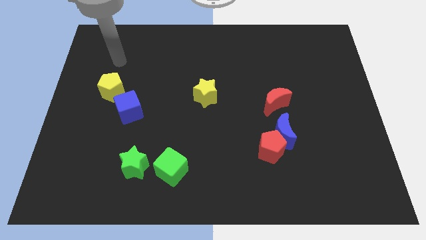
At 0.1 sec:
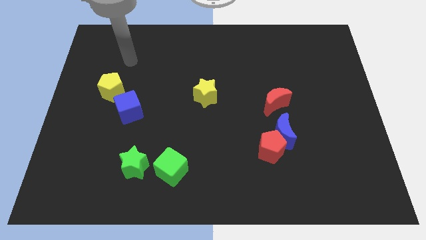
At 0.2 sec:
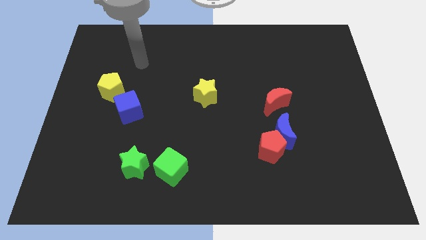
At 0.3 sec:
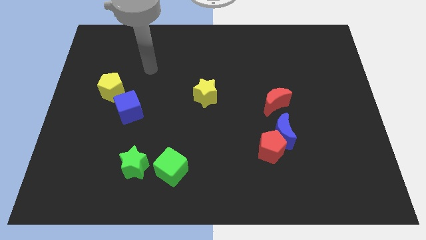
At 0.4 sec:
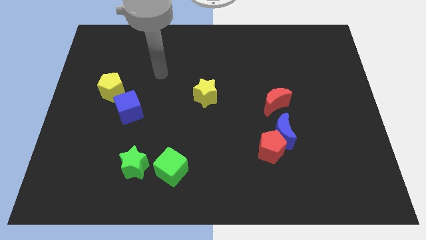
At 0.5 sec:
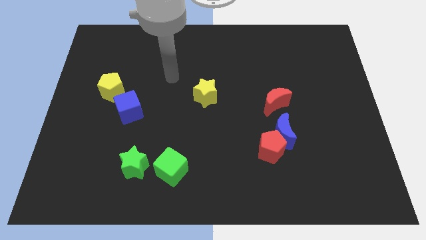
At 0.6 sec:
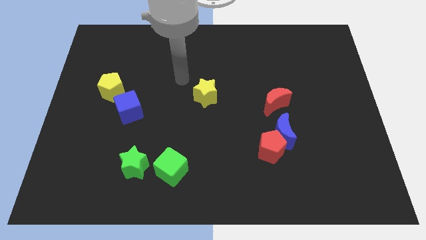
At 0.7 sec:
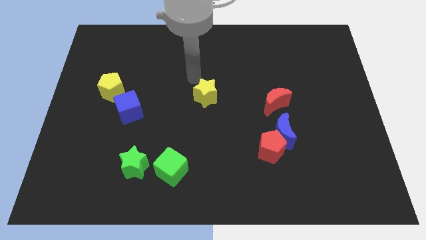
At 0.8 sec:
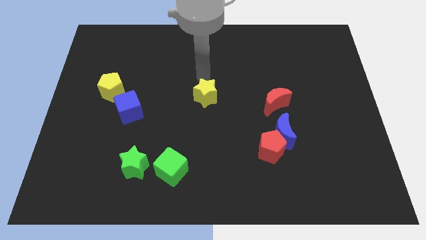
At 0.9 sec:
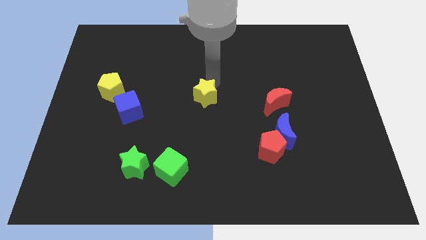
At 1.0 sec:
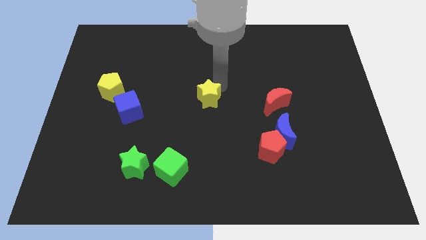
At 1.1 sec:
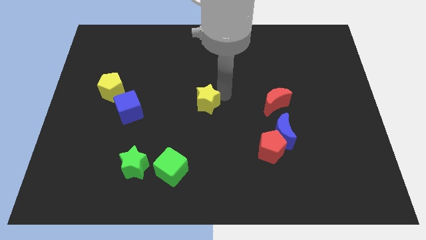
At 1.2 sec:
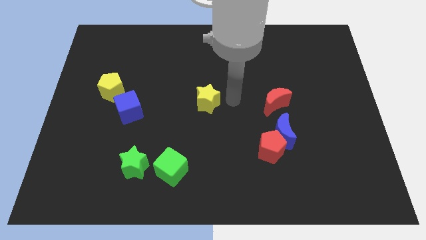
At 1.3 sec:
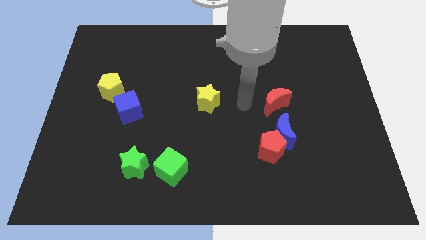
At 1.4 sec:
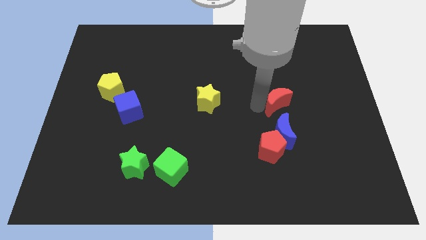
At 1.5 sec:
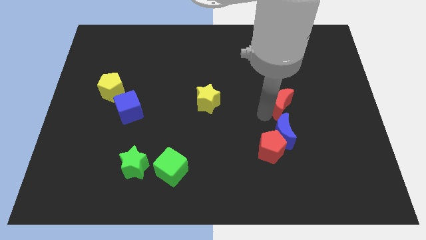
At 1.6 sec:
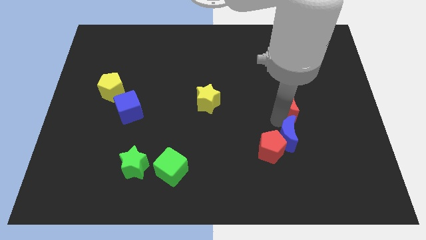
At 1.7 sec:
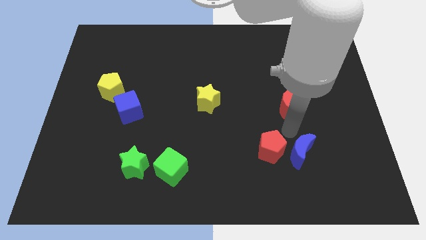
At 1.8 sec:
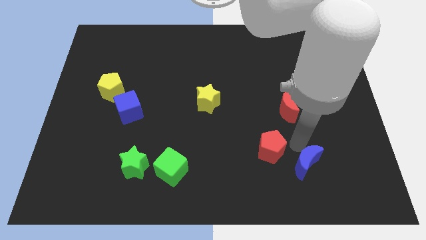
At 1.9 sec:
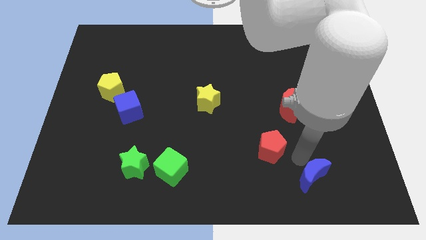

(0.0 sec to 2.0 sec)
pull the red pentagon apart from the blue moon

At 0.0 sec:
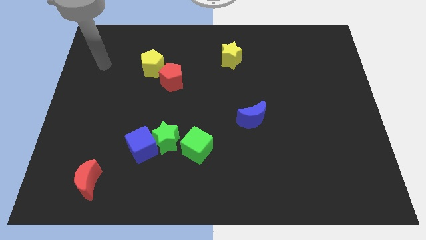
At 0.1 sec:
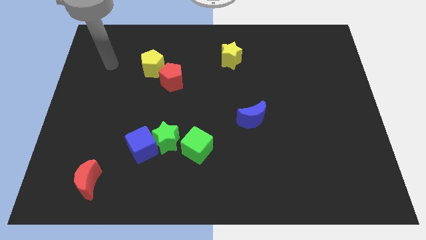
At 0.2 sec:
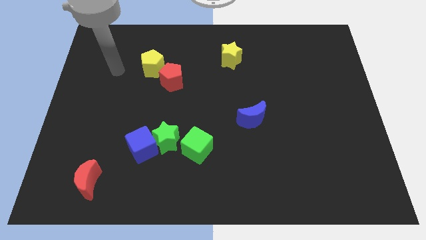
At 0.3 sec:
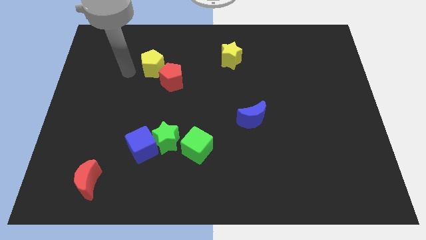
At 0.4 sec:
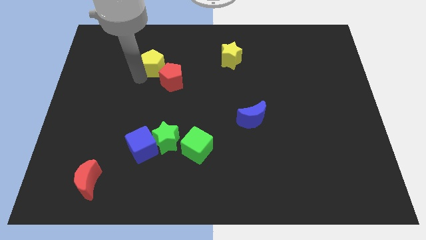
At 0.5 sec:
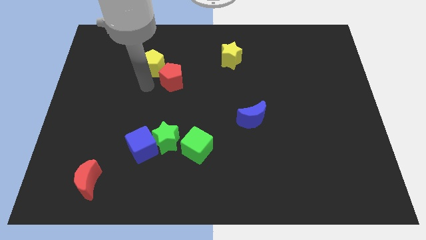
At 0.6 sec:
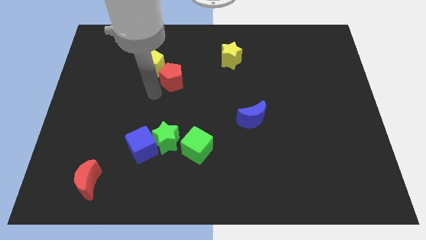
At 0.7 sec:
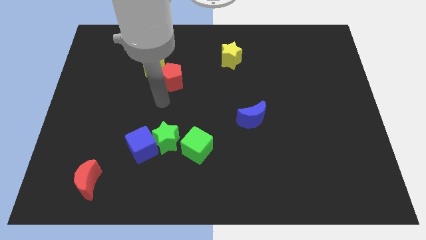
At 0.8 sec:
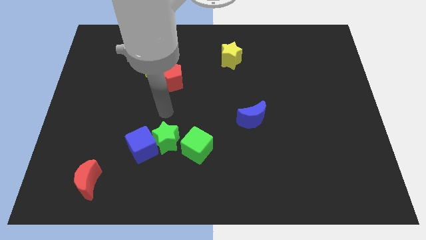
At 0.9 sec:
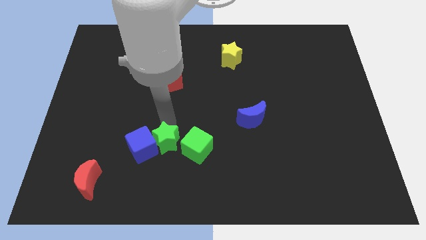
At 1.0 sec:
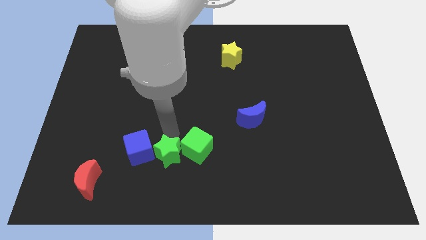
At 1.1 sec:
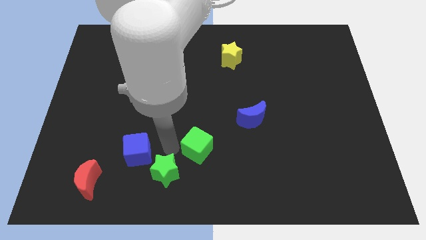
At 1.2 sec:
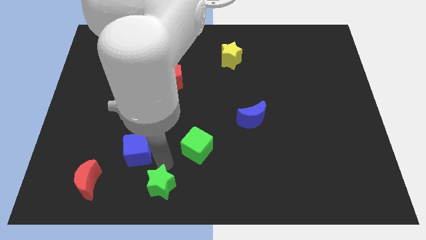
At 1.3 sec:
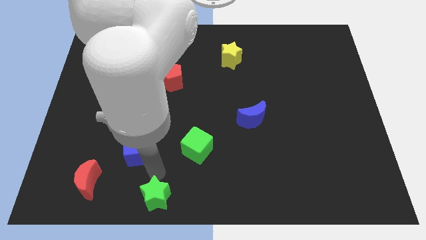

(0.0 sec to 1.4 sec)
move the blue cube away from the green star

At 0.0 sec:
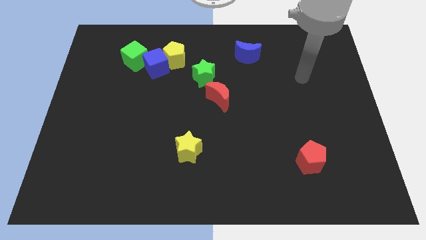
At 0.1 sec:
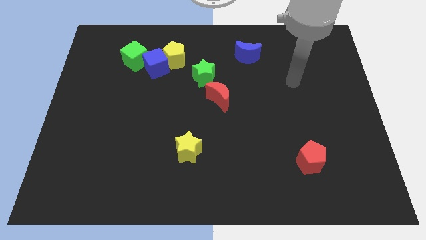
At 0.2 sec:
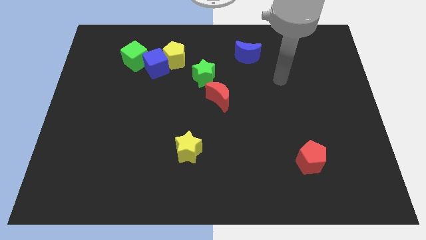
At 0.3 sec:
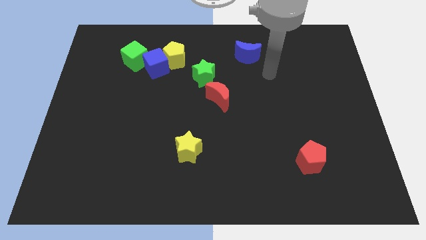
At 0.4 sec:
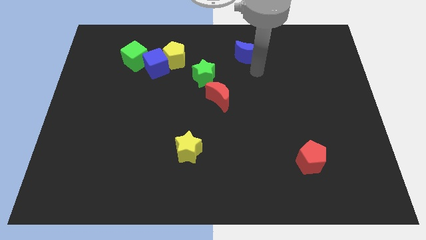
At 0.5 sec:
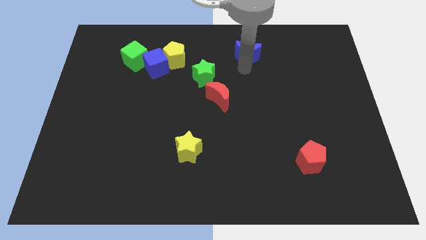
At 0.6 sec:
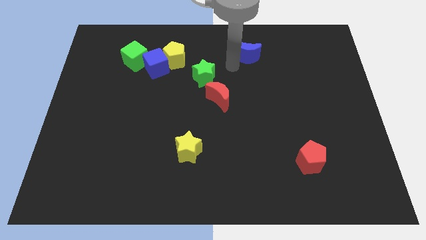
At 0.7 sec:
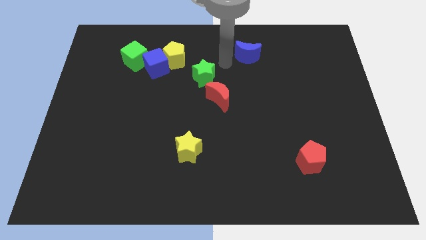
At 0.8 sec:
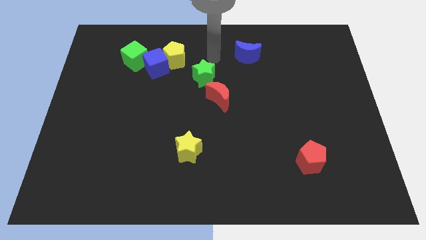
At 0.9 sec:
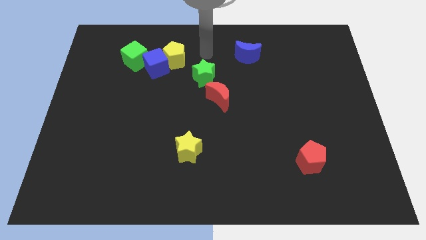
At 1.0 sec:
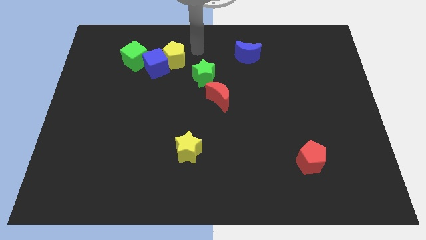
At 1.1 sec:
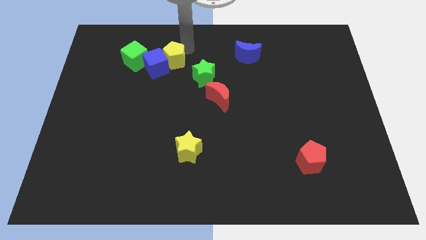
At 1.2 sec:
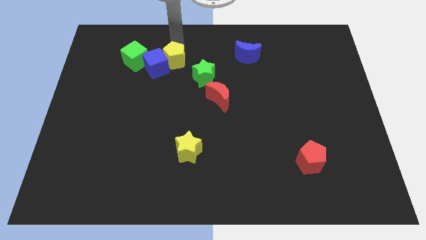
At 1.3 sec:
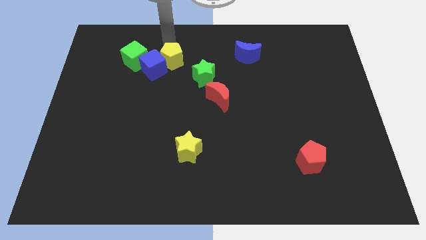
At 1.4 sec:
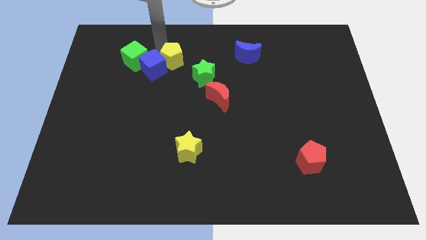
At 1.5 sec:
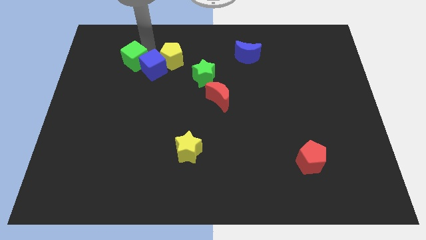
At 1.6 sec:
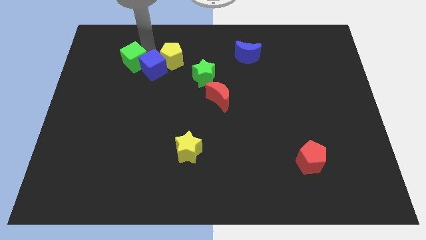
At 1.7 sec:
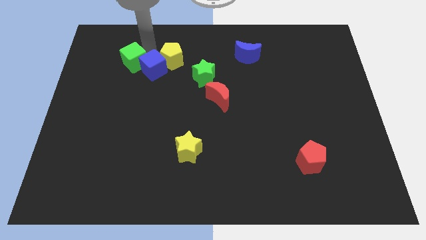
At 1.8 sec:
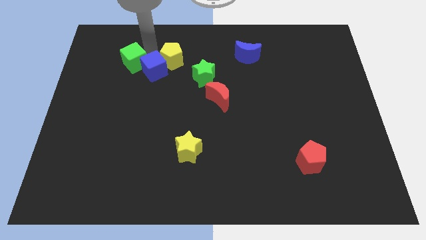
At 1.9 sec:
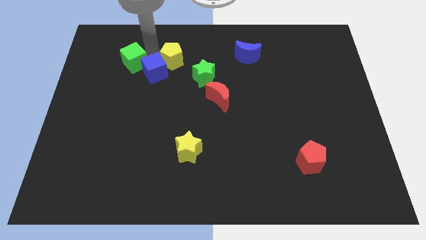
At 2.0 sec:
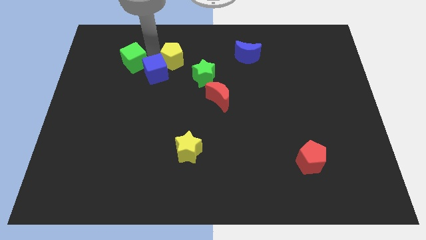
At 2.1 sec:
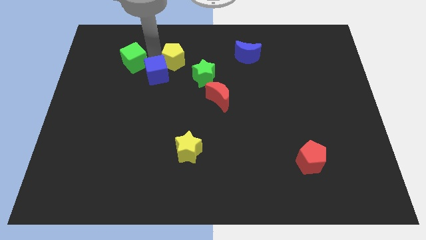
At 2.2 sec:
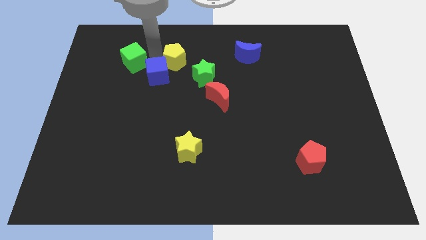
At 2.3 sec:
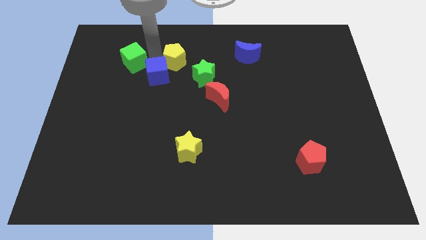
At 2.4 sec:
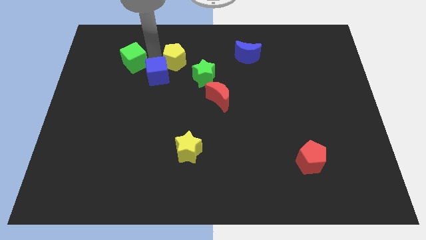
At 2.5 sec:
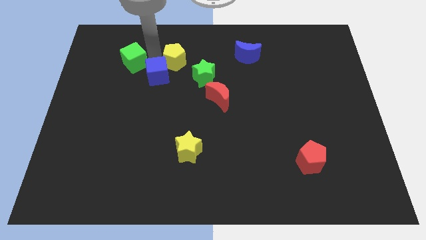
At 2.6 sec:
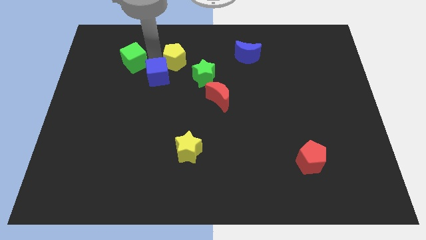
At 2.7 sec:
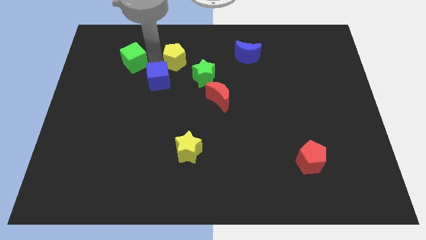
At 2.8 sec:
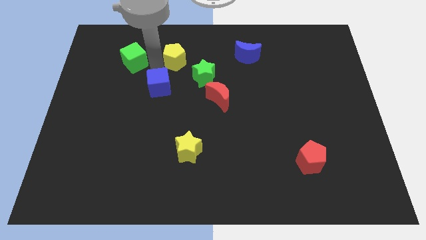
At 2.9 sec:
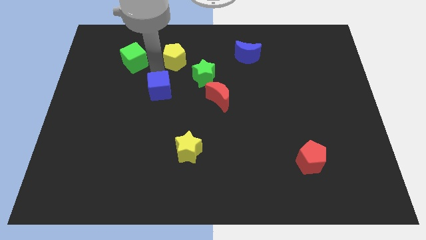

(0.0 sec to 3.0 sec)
pull the blue cube apart from the yellow pentagon and green cube

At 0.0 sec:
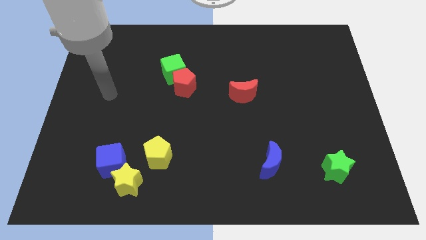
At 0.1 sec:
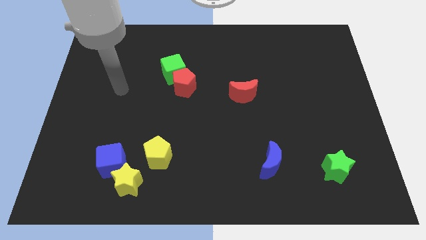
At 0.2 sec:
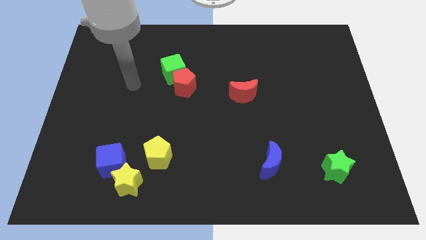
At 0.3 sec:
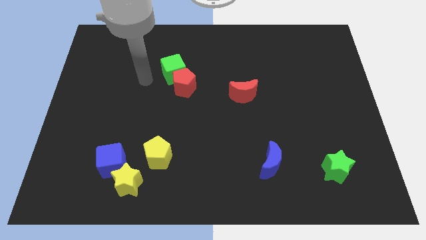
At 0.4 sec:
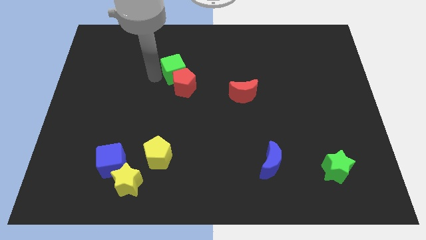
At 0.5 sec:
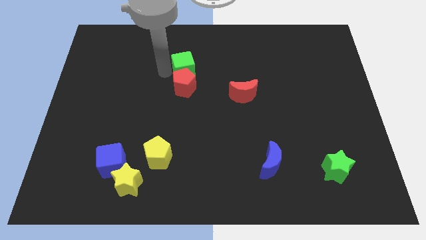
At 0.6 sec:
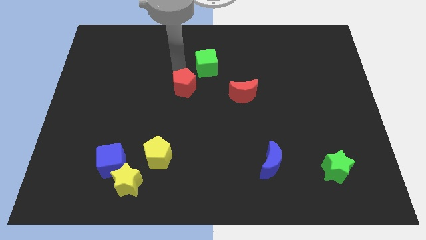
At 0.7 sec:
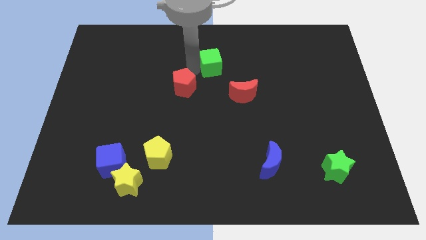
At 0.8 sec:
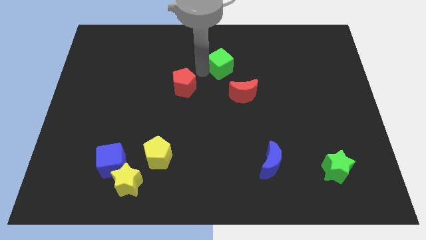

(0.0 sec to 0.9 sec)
move the red pentagon away from the green cube

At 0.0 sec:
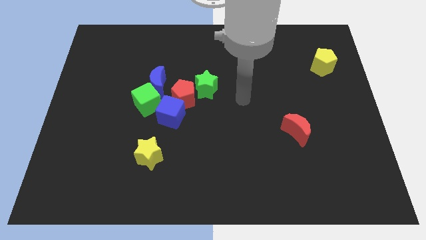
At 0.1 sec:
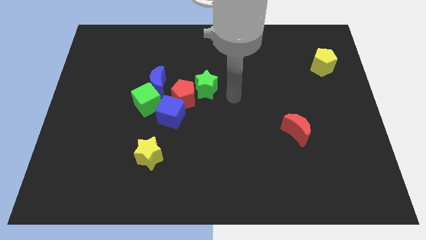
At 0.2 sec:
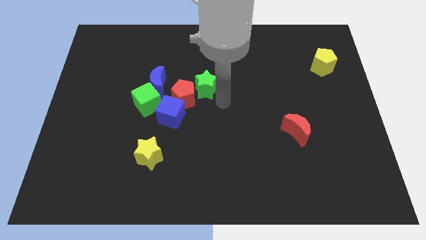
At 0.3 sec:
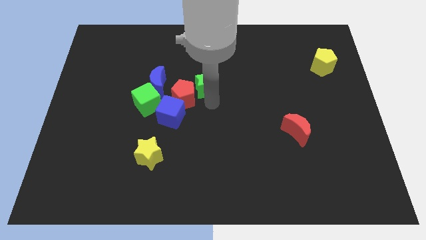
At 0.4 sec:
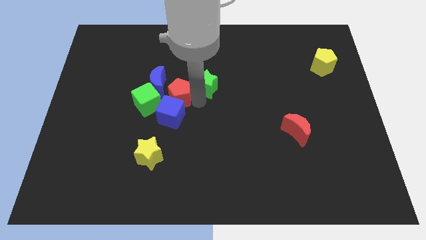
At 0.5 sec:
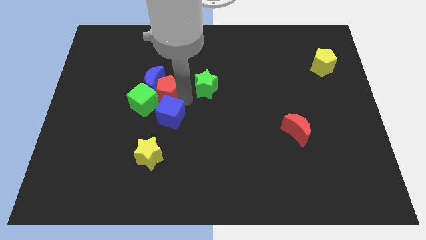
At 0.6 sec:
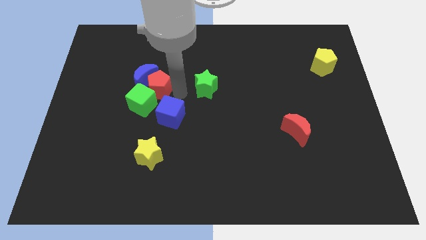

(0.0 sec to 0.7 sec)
move the green star away from the red pentagon

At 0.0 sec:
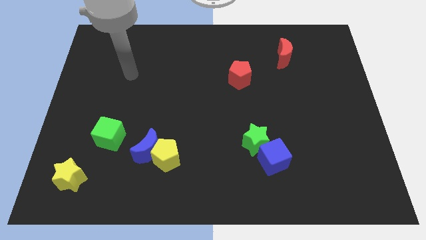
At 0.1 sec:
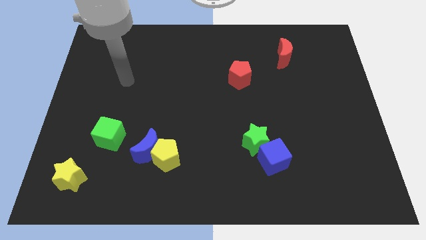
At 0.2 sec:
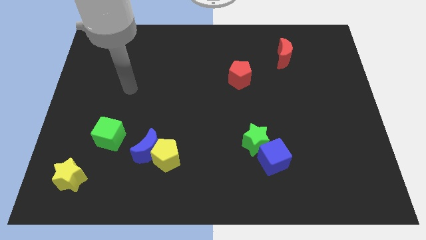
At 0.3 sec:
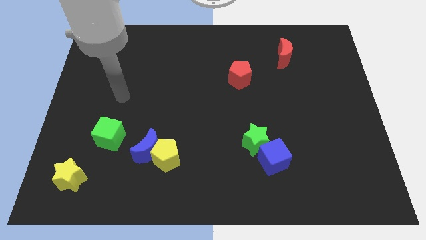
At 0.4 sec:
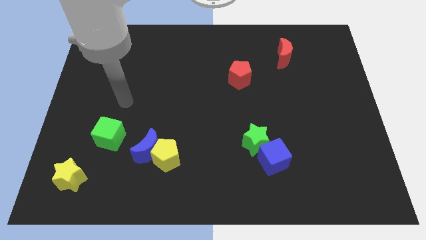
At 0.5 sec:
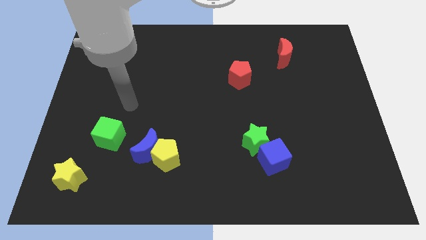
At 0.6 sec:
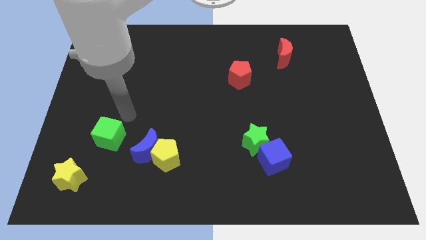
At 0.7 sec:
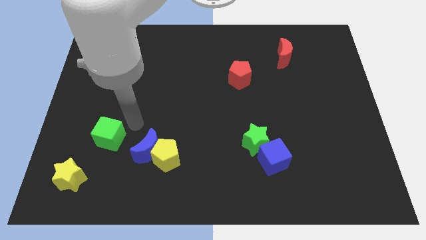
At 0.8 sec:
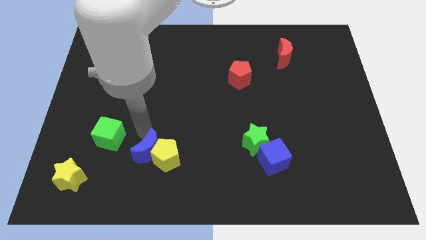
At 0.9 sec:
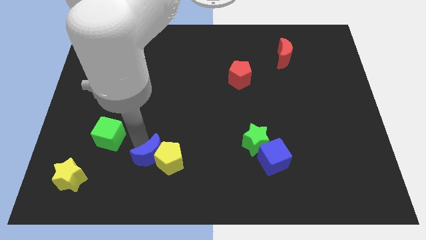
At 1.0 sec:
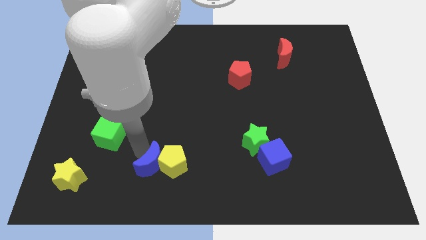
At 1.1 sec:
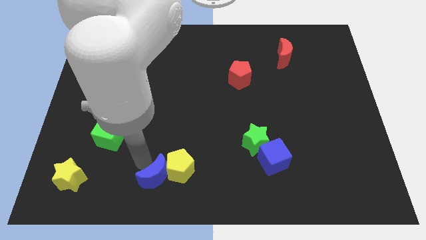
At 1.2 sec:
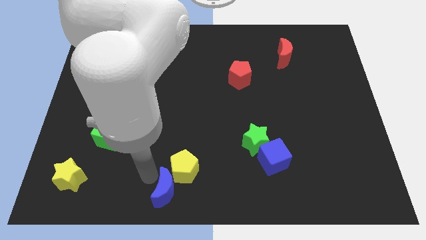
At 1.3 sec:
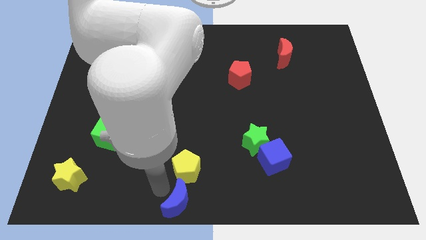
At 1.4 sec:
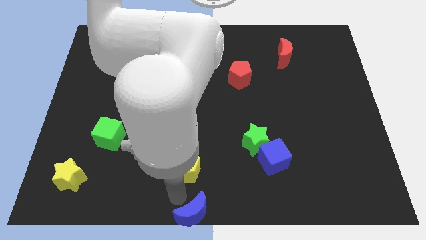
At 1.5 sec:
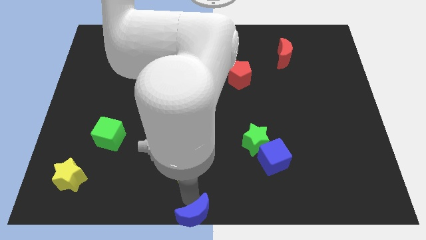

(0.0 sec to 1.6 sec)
pull the yellow pentagon apart from the blue moon
